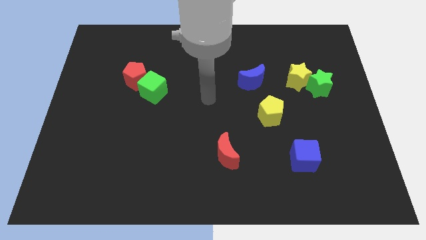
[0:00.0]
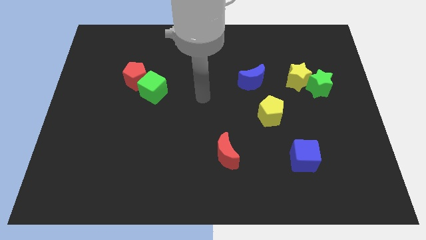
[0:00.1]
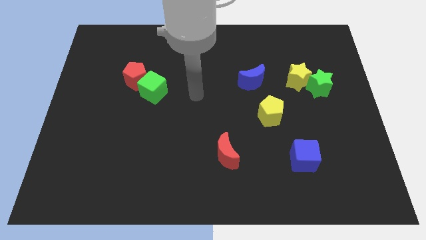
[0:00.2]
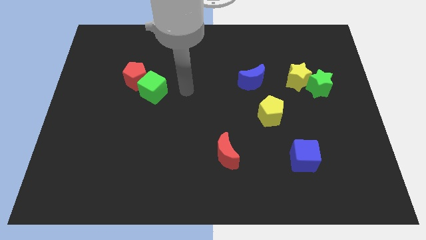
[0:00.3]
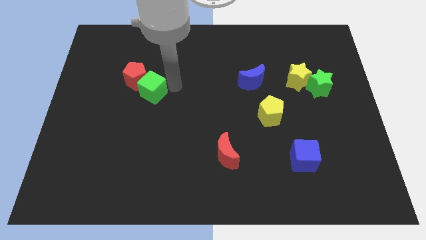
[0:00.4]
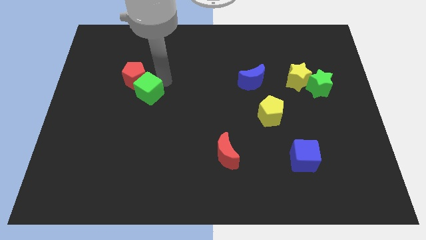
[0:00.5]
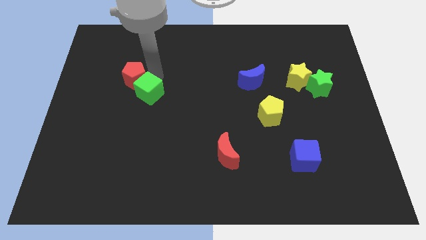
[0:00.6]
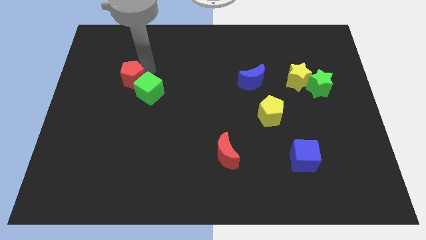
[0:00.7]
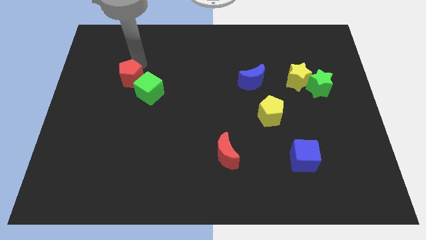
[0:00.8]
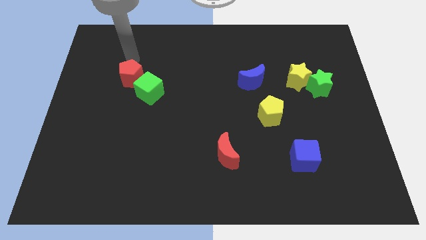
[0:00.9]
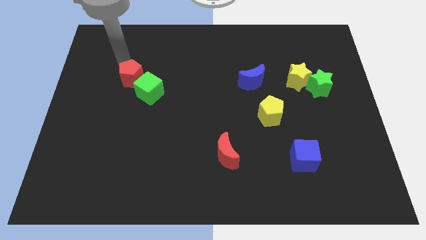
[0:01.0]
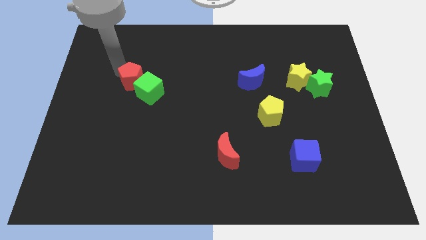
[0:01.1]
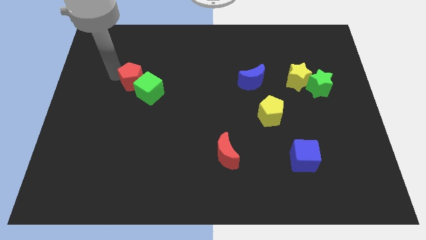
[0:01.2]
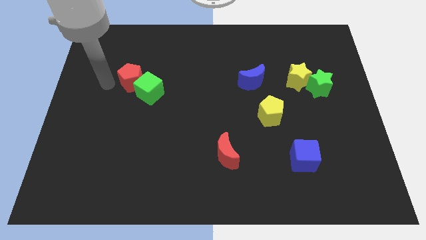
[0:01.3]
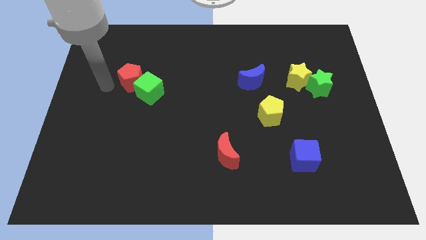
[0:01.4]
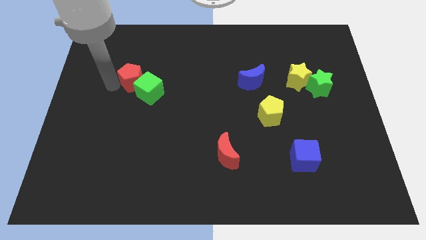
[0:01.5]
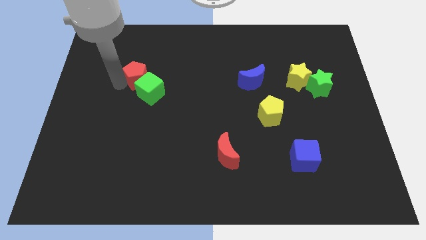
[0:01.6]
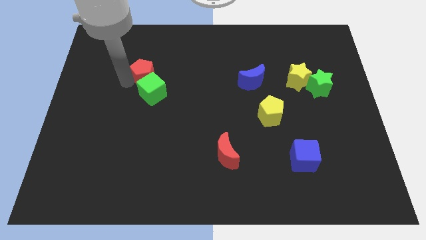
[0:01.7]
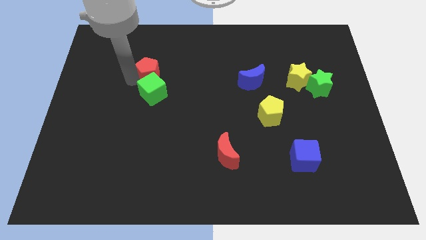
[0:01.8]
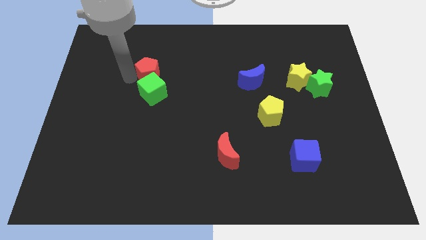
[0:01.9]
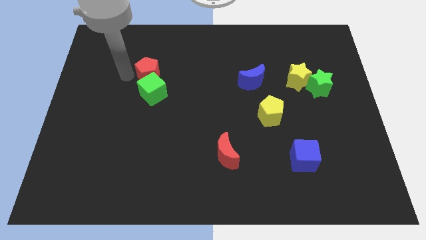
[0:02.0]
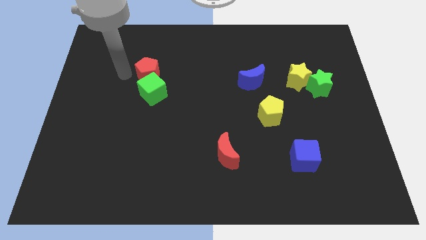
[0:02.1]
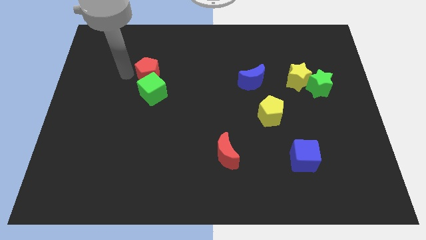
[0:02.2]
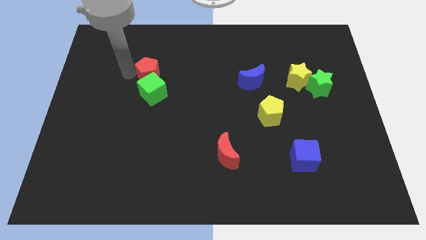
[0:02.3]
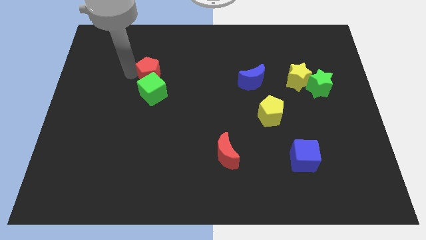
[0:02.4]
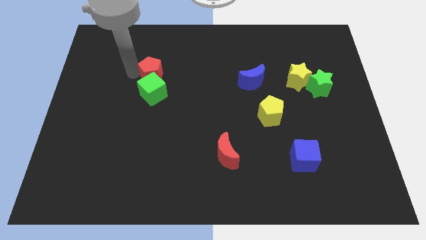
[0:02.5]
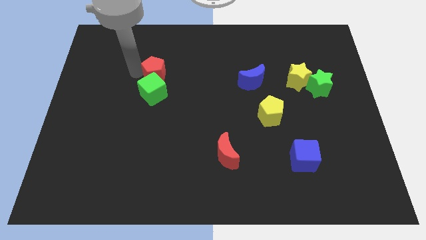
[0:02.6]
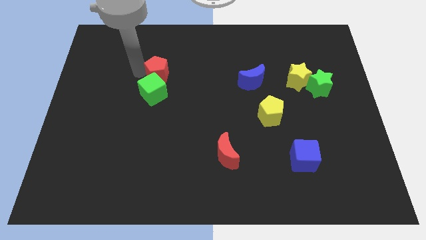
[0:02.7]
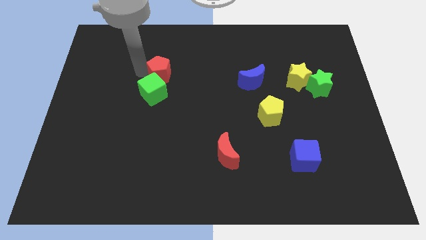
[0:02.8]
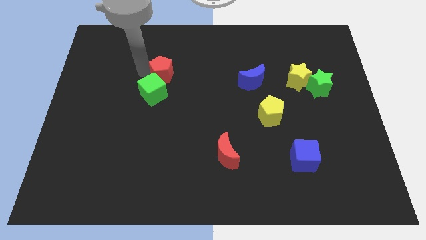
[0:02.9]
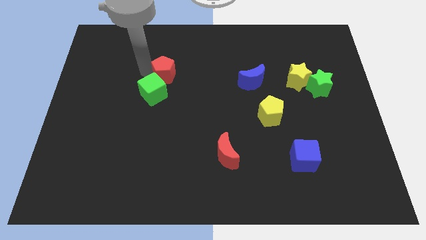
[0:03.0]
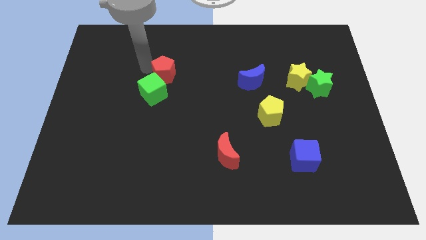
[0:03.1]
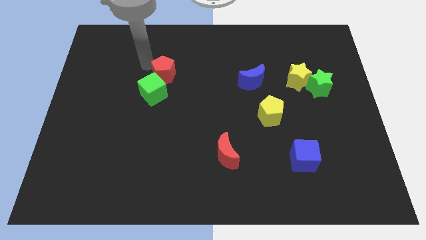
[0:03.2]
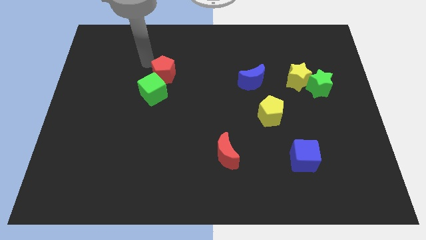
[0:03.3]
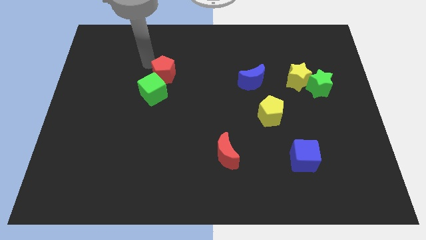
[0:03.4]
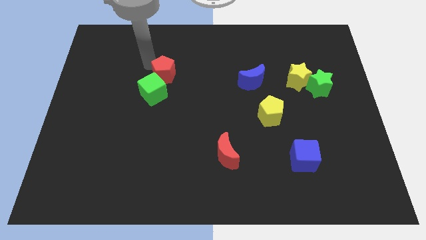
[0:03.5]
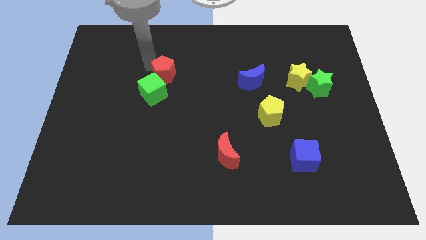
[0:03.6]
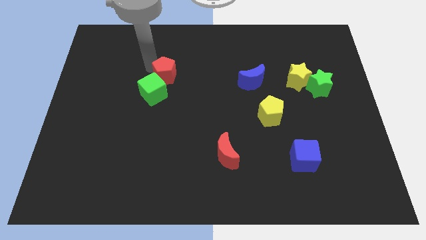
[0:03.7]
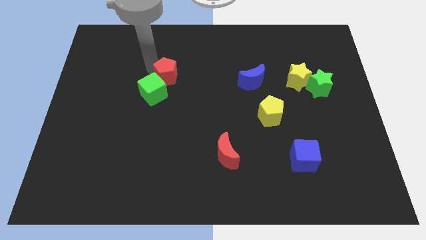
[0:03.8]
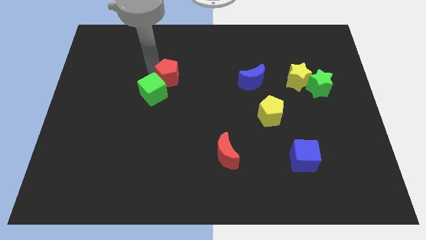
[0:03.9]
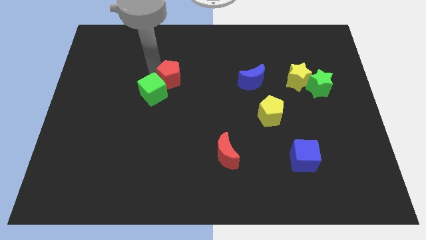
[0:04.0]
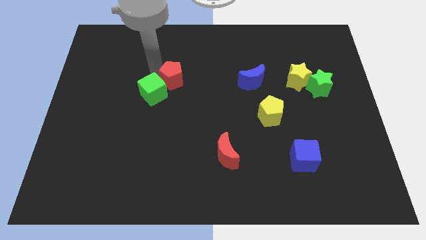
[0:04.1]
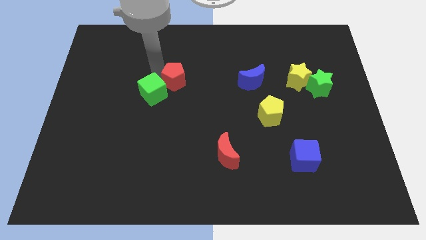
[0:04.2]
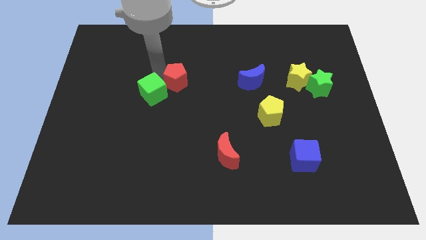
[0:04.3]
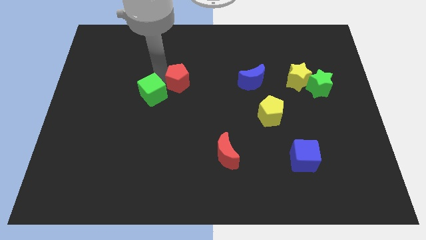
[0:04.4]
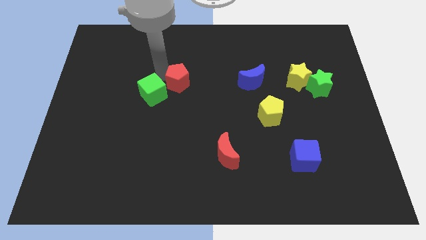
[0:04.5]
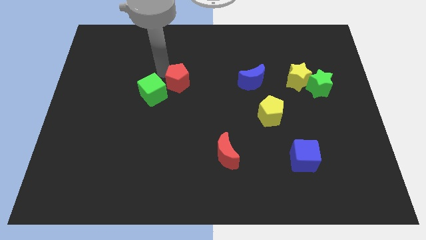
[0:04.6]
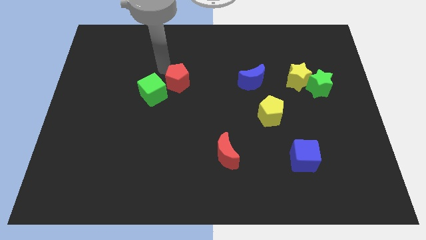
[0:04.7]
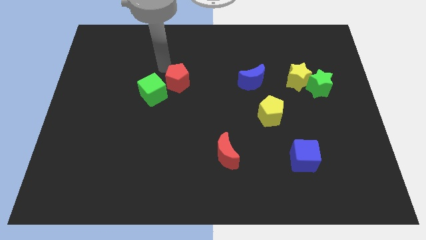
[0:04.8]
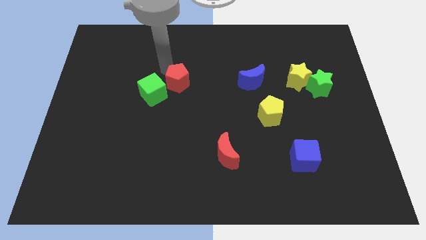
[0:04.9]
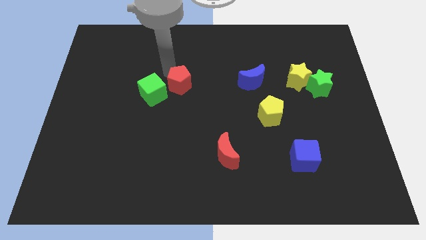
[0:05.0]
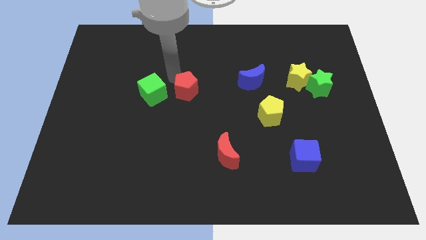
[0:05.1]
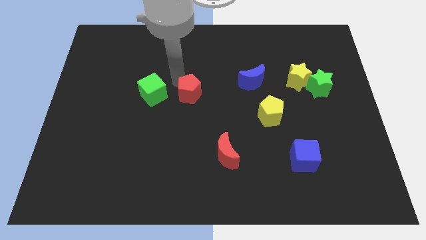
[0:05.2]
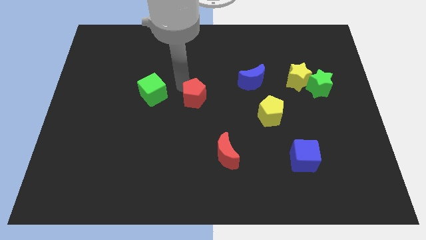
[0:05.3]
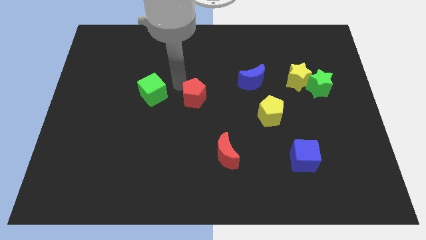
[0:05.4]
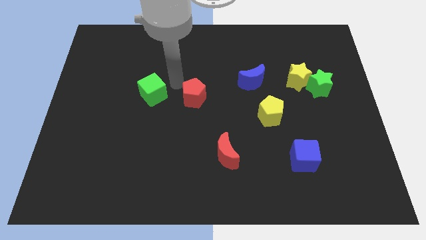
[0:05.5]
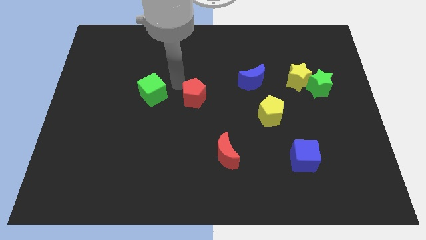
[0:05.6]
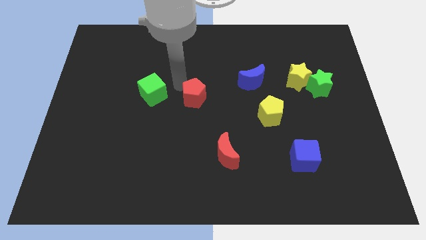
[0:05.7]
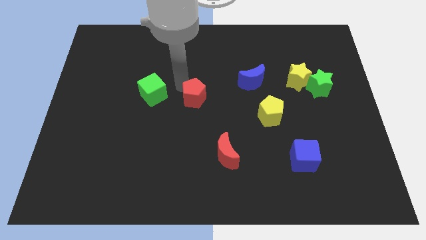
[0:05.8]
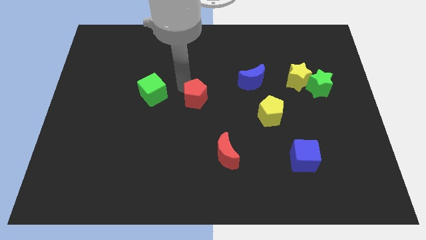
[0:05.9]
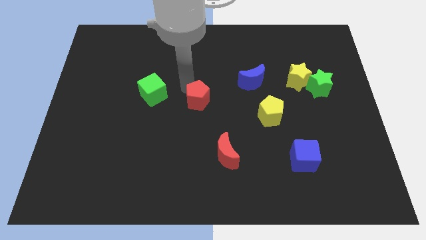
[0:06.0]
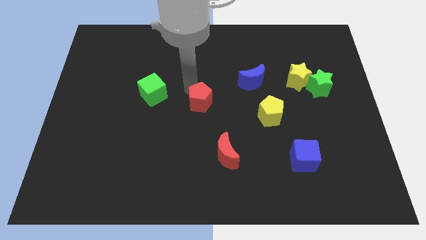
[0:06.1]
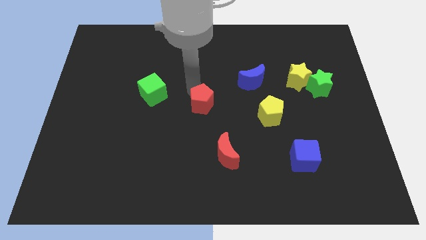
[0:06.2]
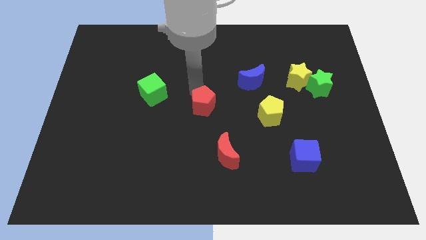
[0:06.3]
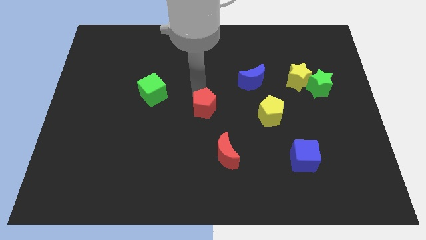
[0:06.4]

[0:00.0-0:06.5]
move the red pentagon to the left side of the yellow pentagon

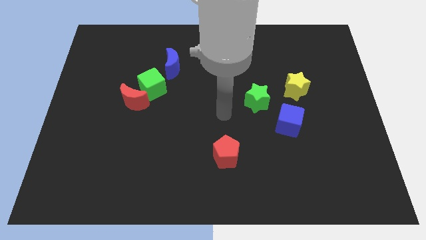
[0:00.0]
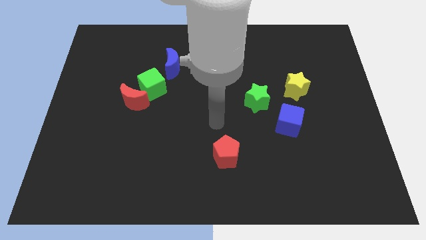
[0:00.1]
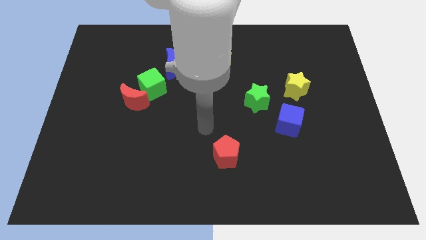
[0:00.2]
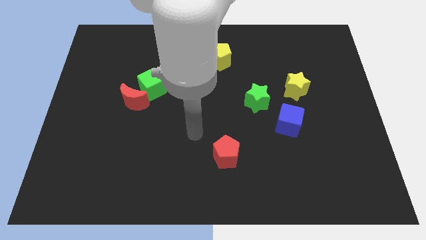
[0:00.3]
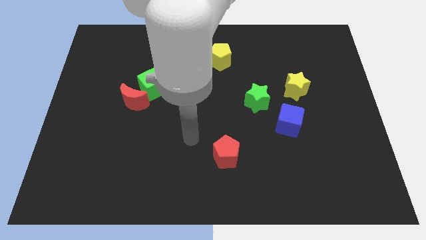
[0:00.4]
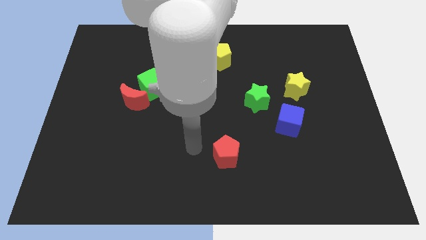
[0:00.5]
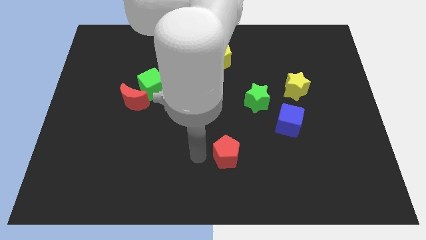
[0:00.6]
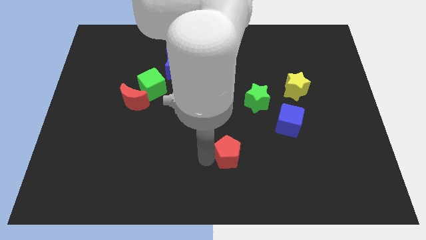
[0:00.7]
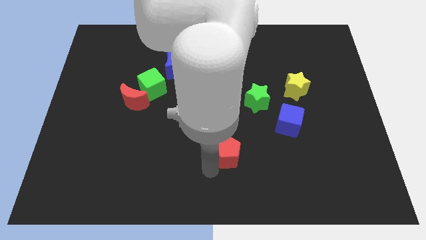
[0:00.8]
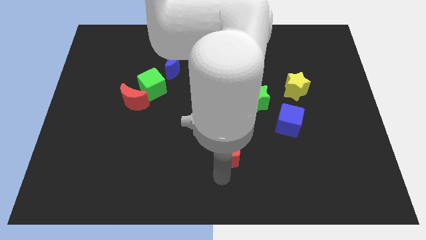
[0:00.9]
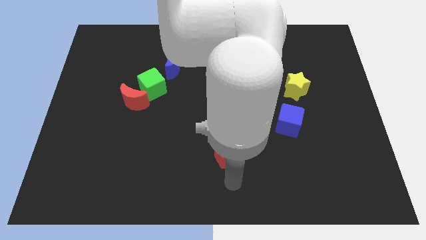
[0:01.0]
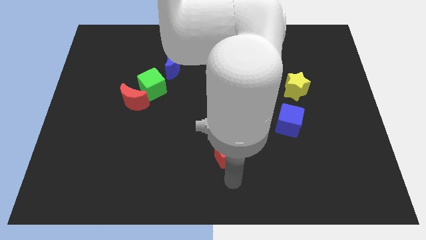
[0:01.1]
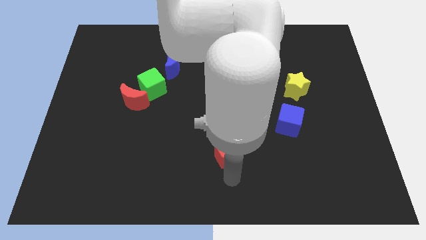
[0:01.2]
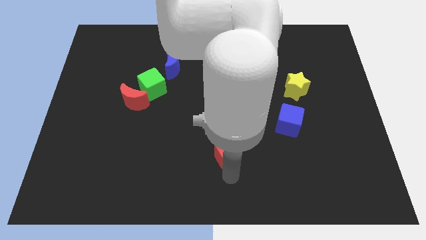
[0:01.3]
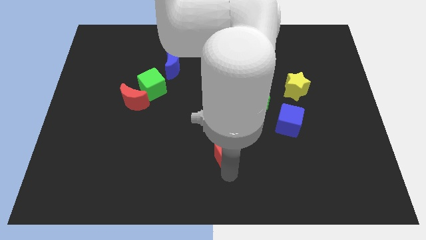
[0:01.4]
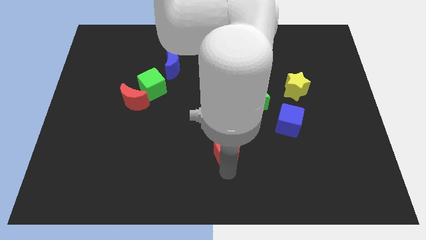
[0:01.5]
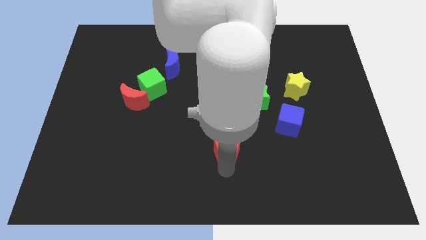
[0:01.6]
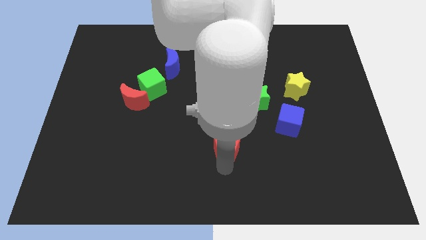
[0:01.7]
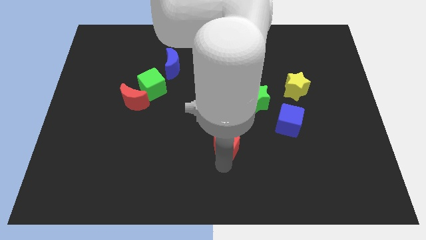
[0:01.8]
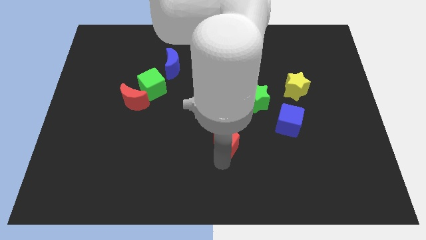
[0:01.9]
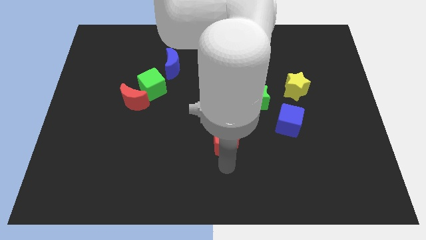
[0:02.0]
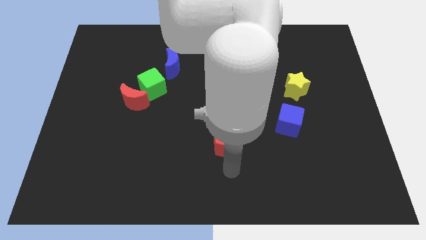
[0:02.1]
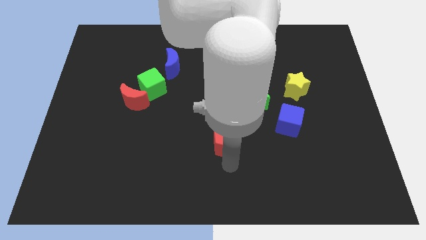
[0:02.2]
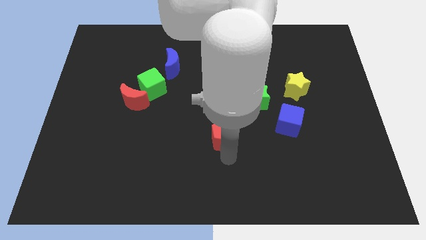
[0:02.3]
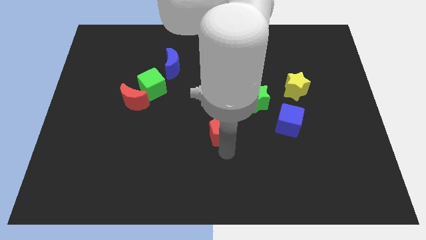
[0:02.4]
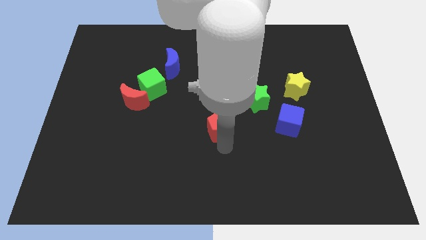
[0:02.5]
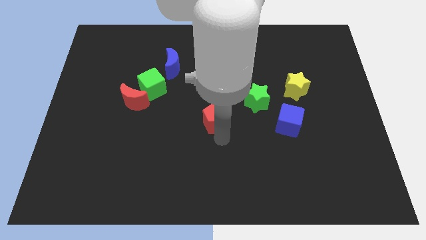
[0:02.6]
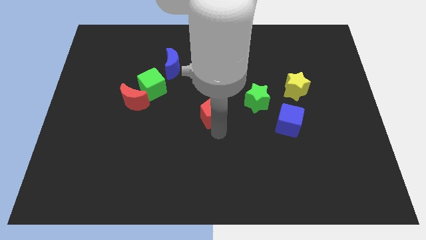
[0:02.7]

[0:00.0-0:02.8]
slide the red pentagon just left of the green star
